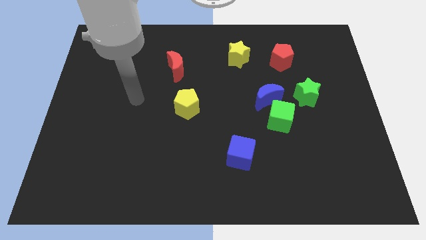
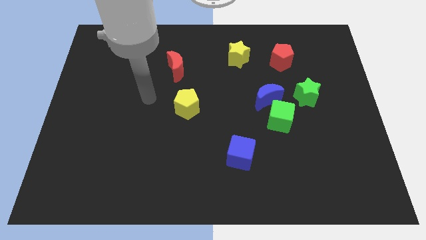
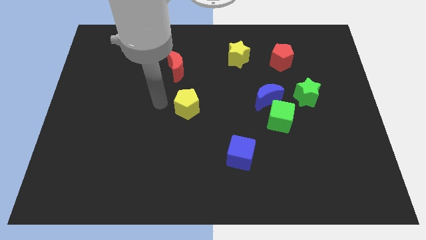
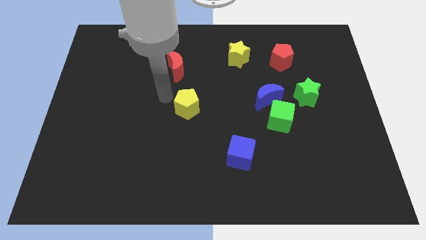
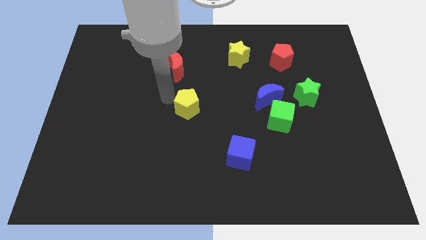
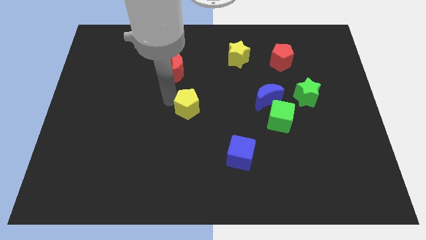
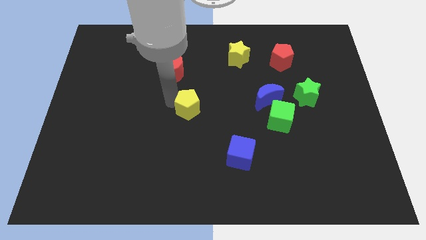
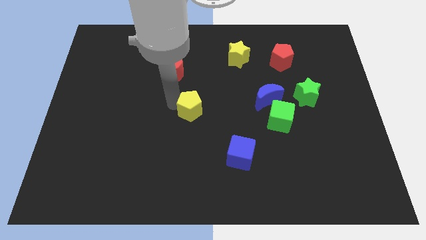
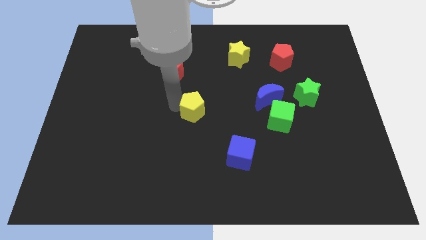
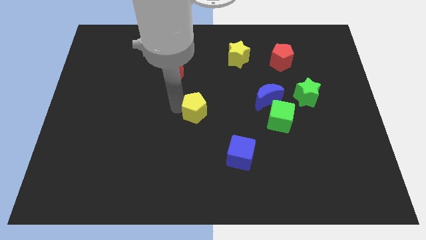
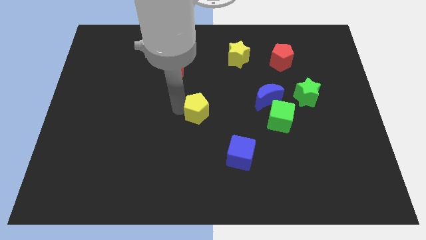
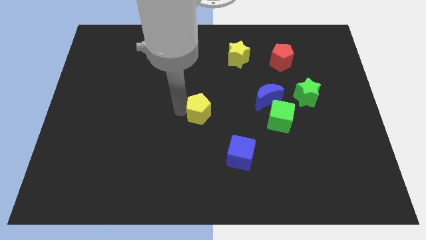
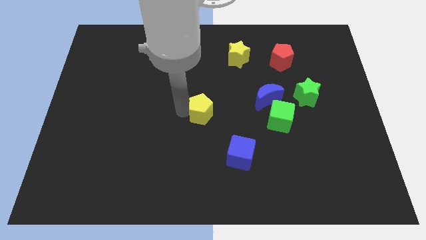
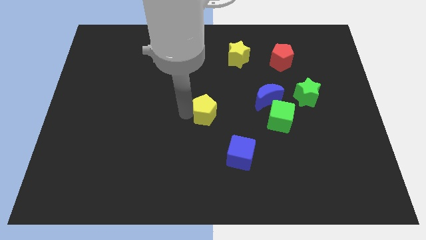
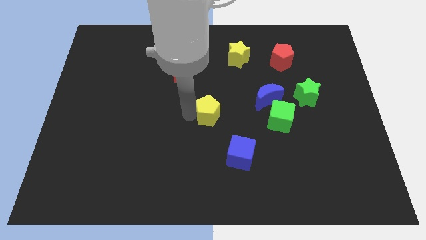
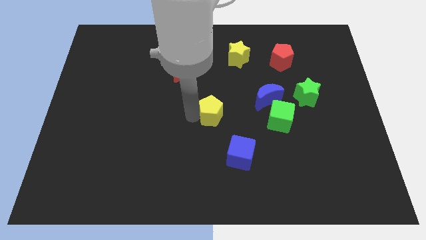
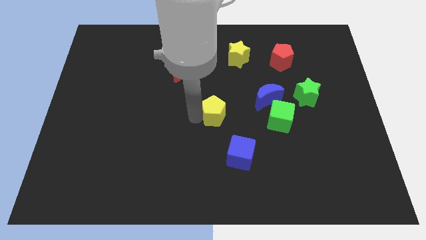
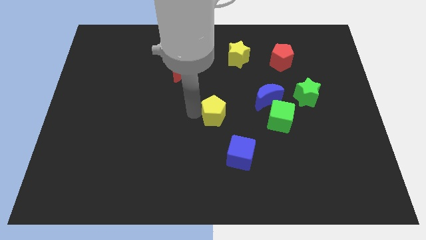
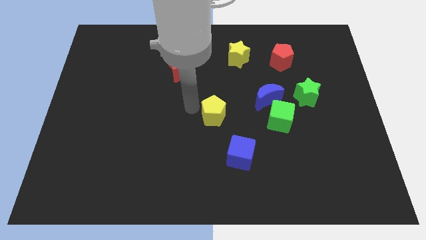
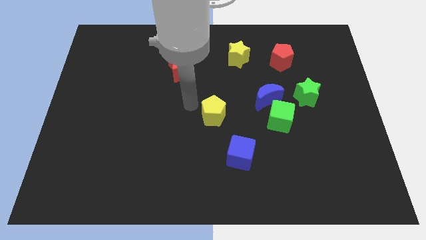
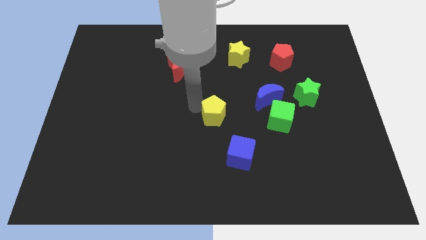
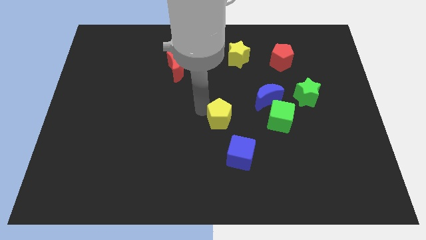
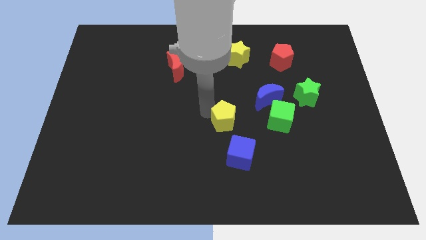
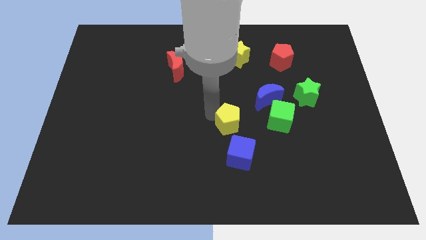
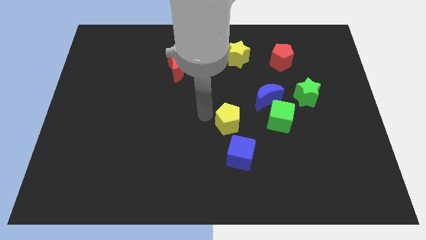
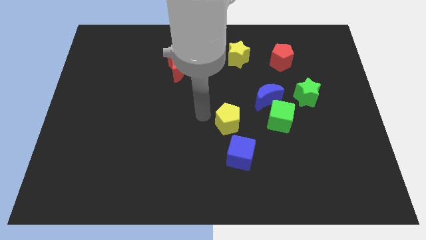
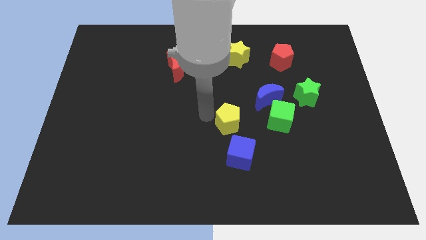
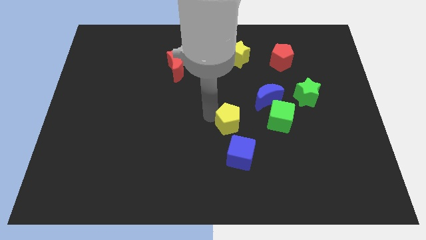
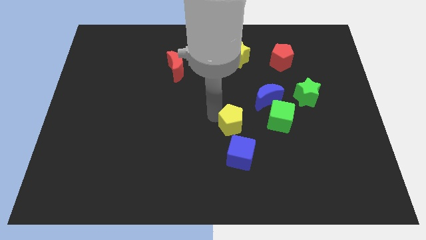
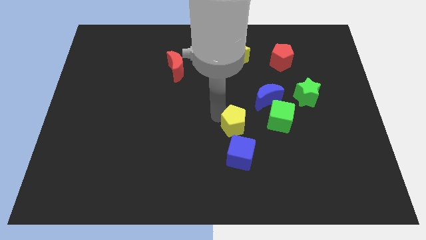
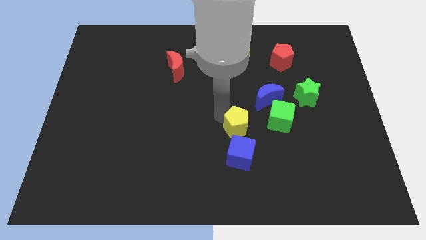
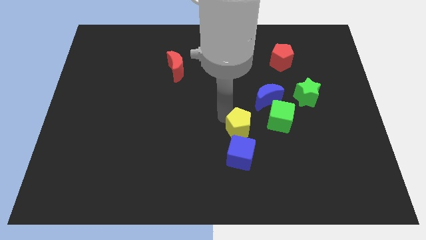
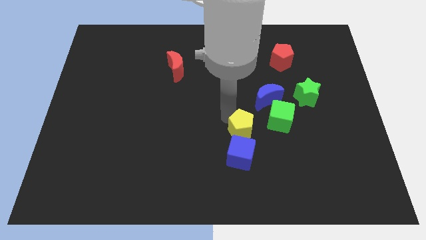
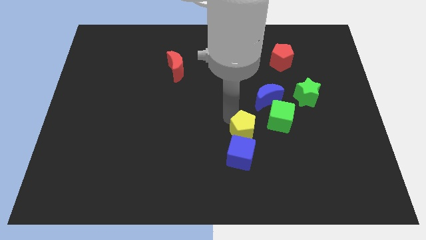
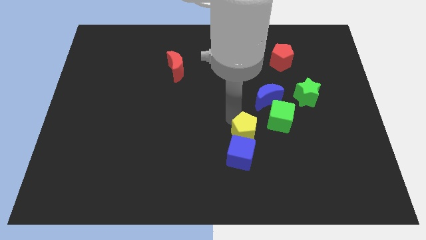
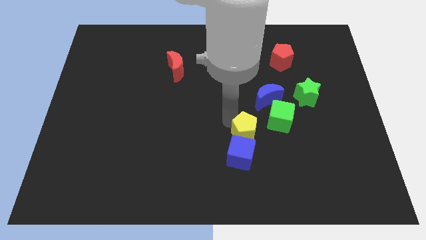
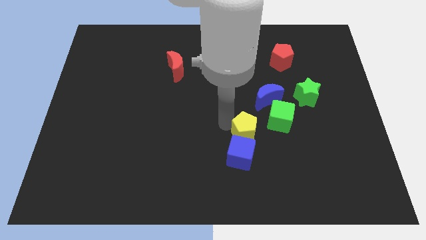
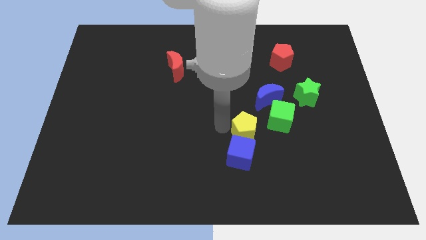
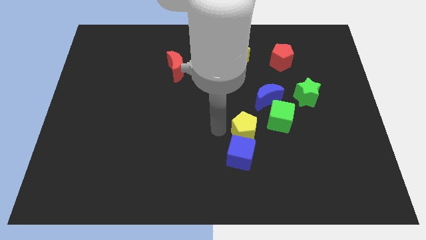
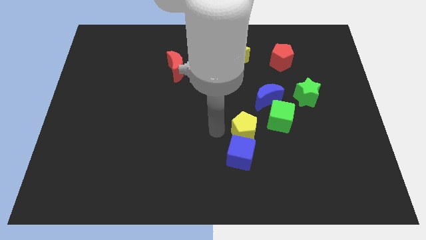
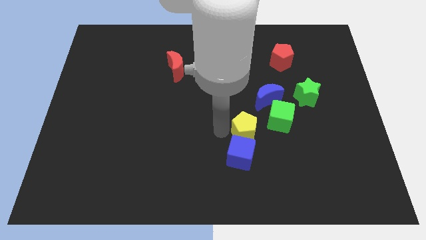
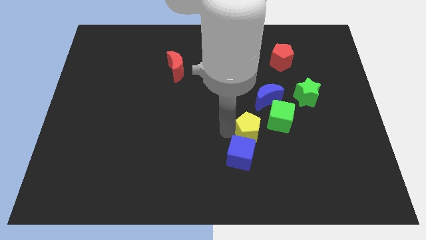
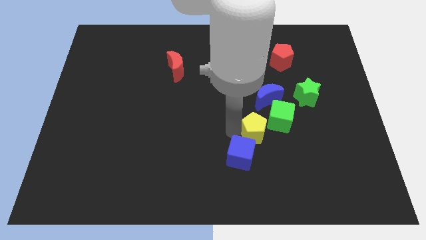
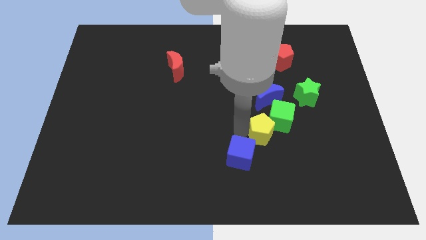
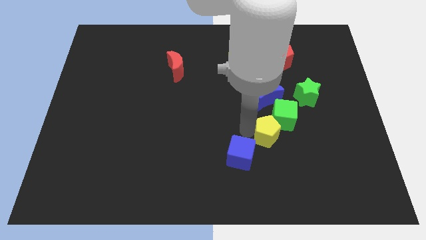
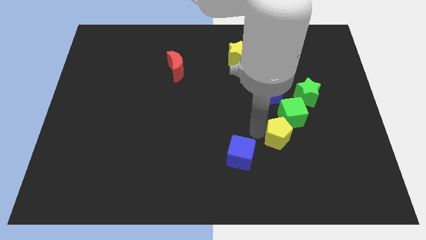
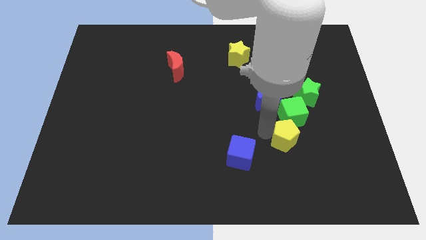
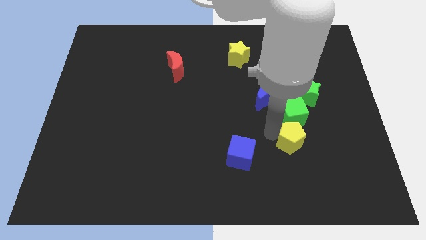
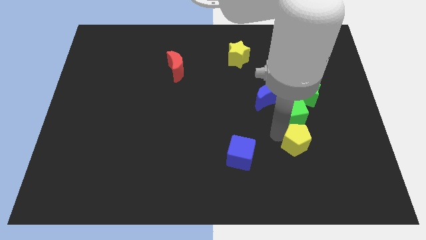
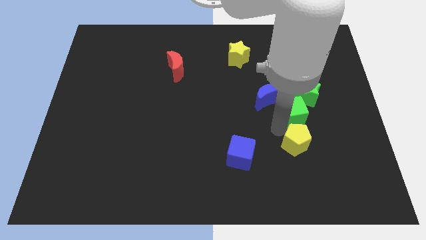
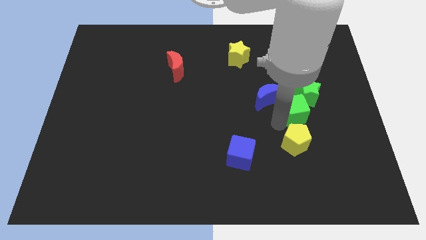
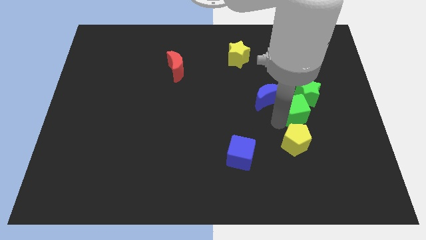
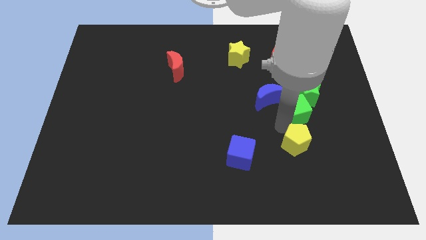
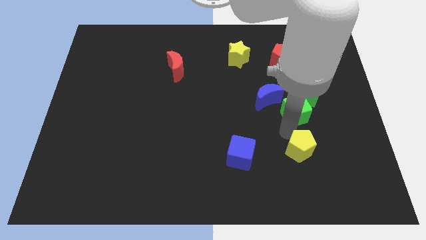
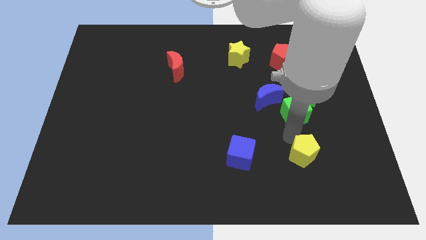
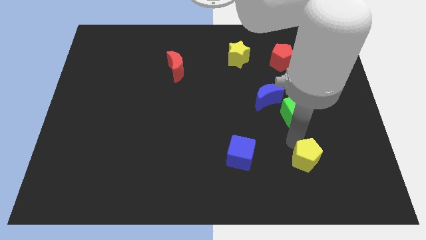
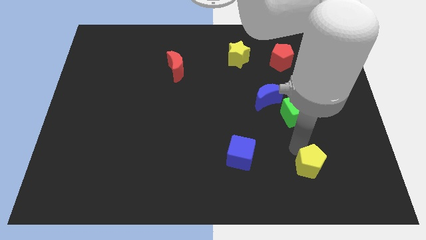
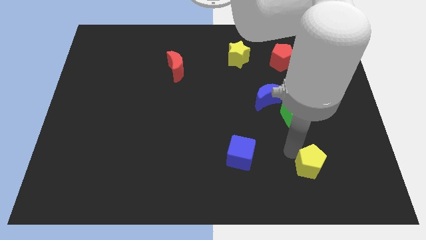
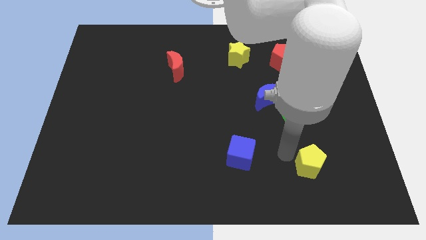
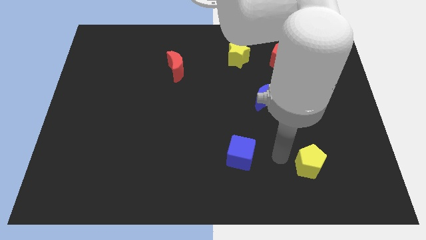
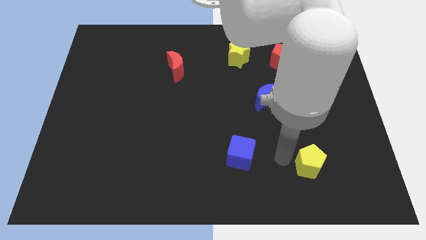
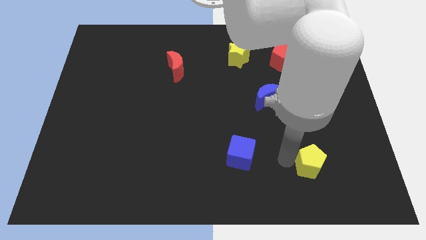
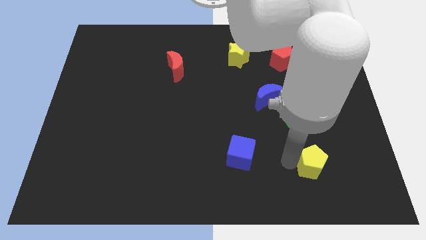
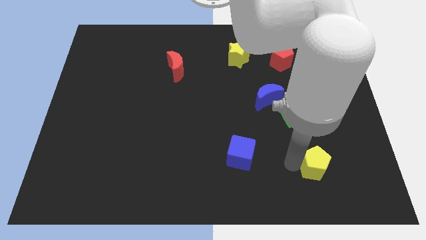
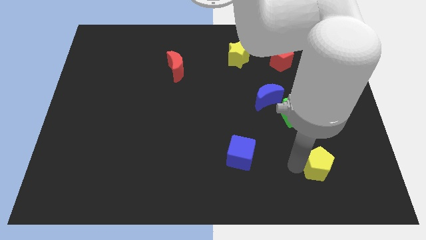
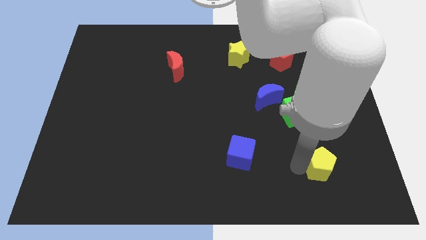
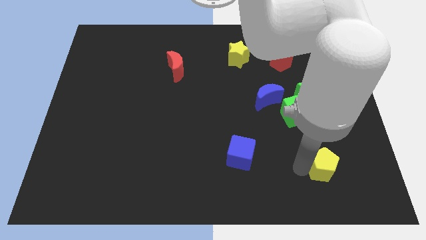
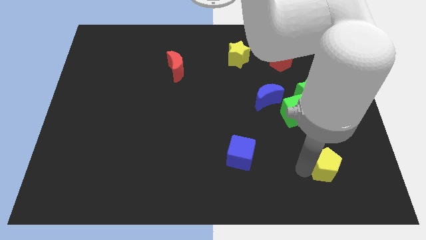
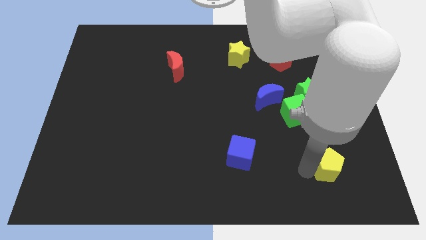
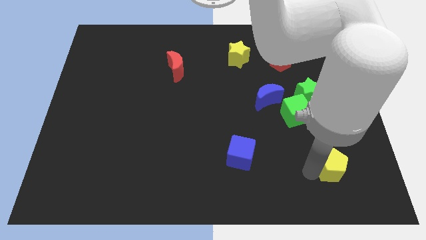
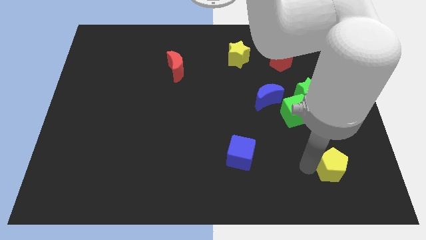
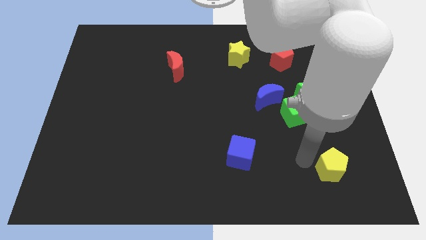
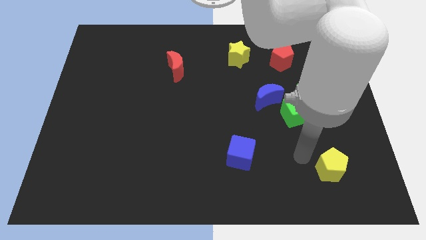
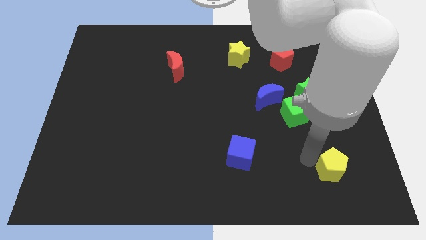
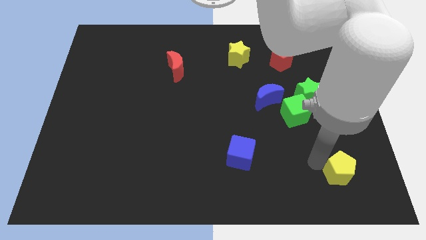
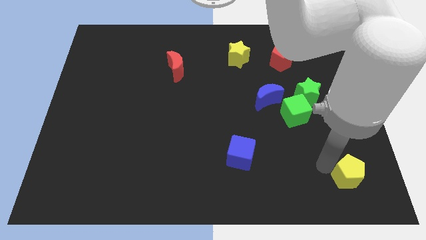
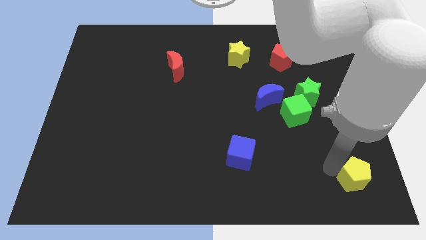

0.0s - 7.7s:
slide the yellow pentagon to the bottom right corner
